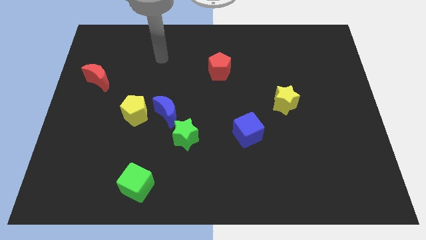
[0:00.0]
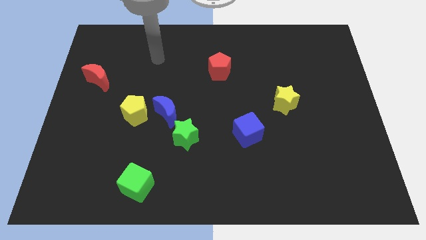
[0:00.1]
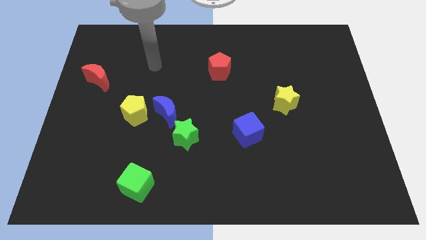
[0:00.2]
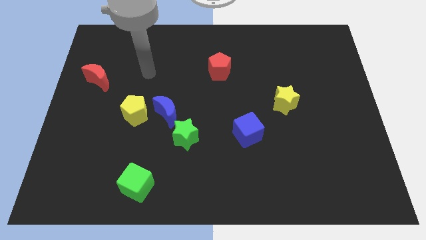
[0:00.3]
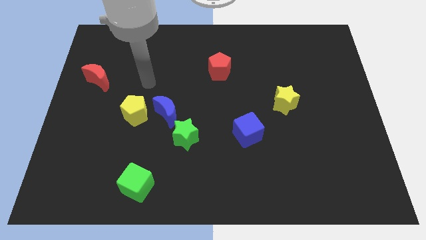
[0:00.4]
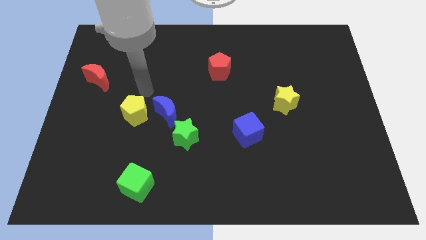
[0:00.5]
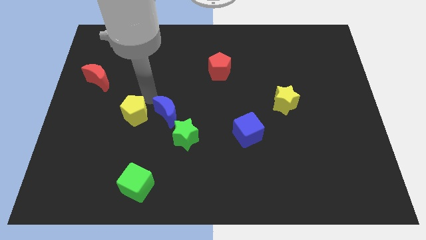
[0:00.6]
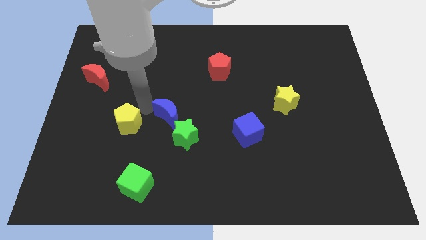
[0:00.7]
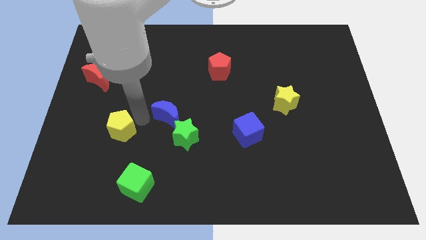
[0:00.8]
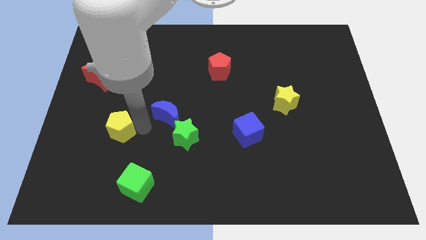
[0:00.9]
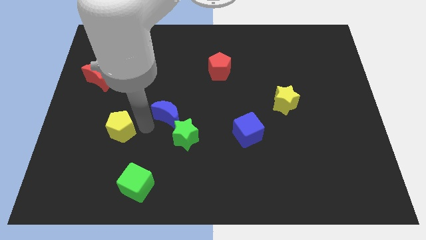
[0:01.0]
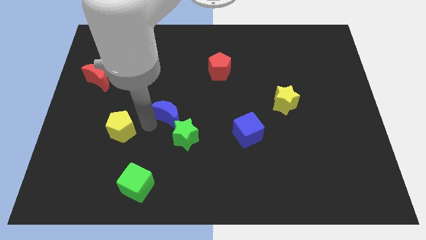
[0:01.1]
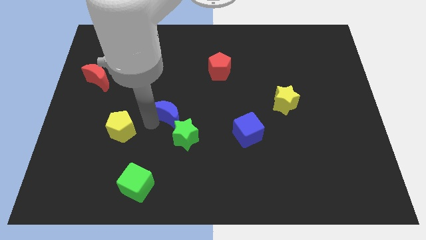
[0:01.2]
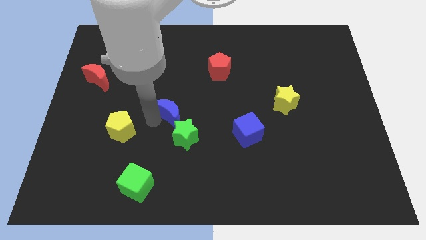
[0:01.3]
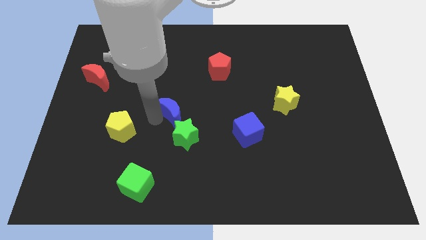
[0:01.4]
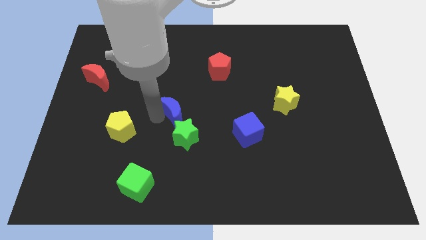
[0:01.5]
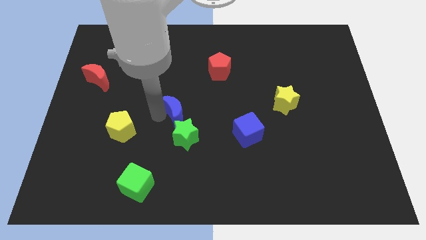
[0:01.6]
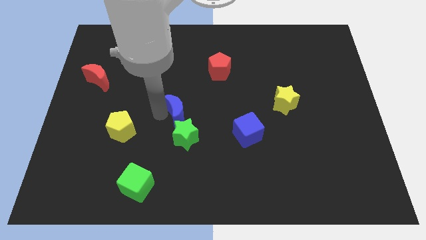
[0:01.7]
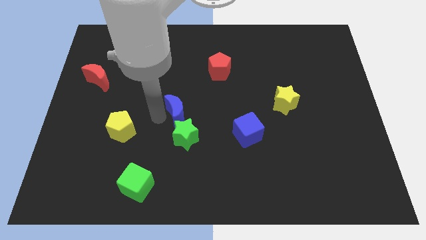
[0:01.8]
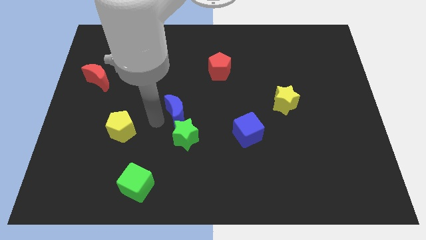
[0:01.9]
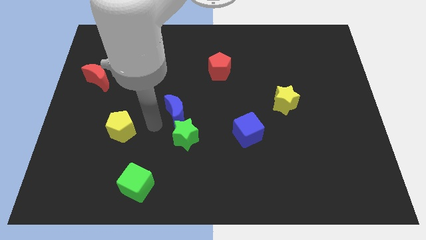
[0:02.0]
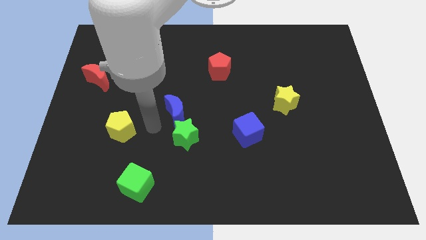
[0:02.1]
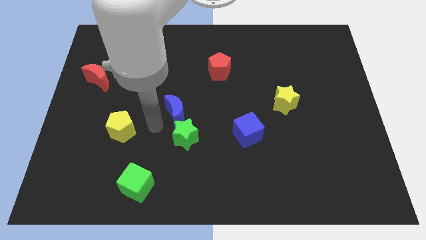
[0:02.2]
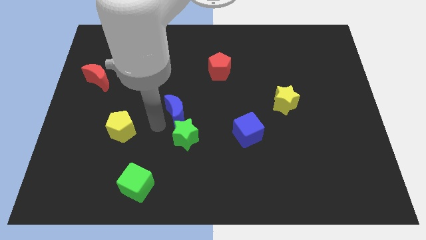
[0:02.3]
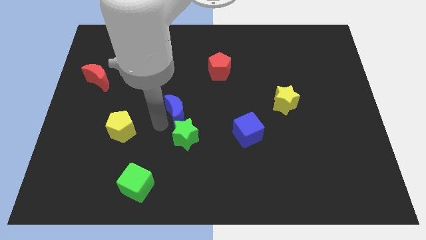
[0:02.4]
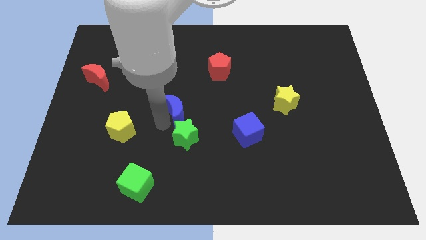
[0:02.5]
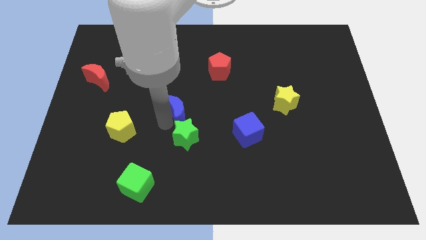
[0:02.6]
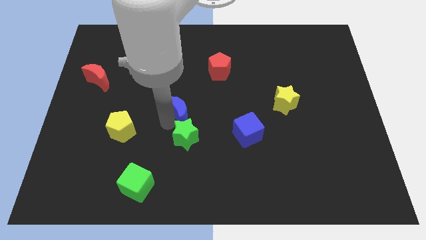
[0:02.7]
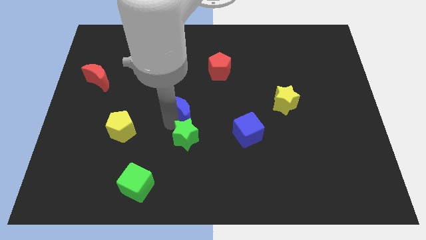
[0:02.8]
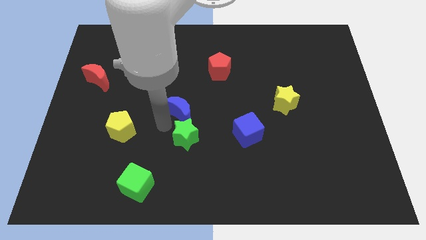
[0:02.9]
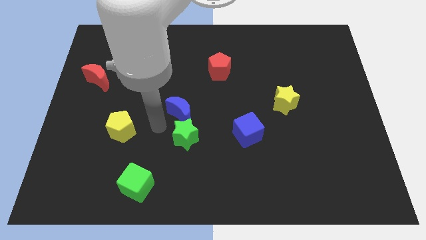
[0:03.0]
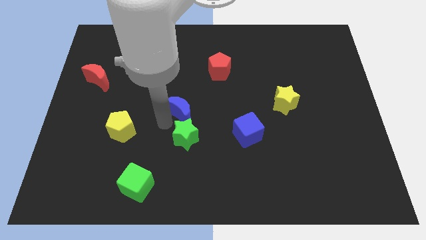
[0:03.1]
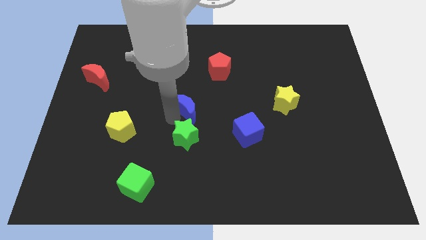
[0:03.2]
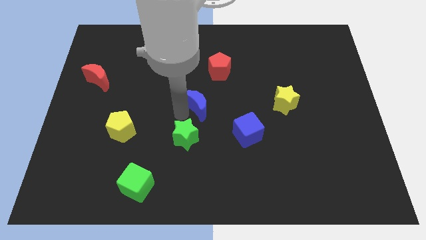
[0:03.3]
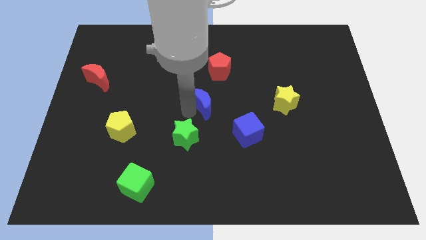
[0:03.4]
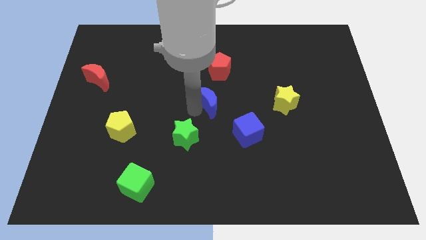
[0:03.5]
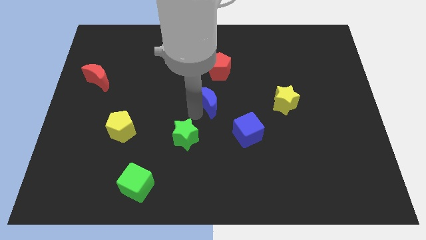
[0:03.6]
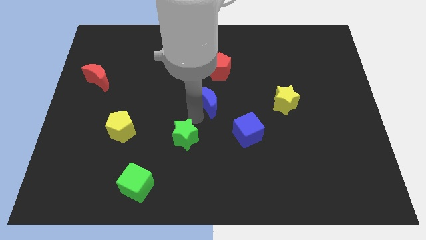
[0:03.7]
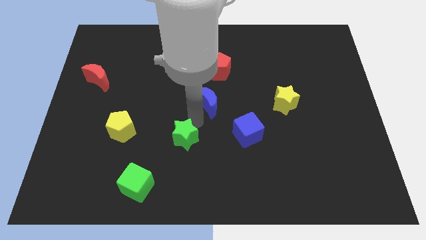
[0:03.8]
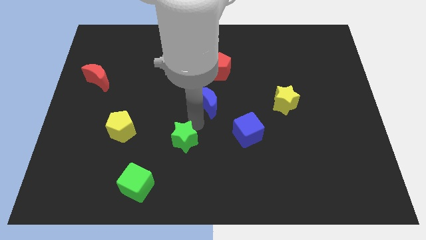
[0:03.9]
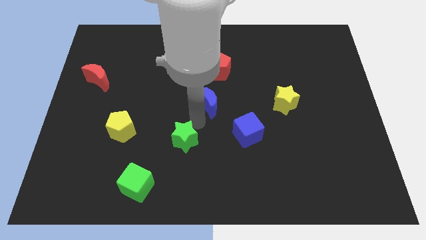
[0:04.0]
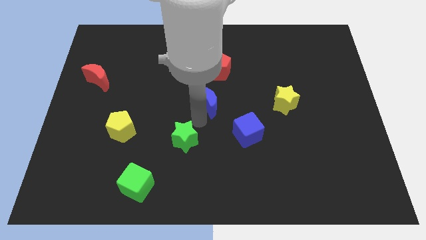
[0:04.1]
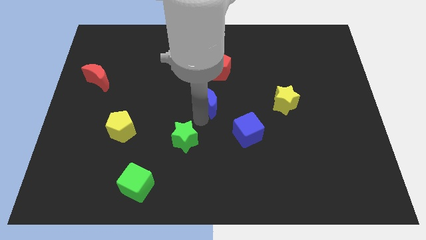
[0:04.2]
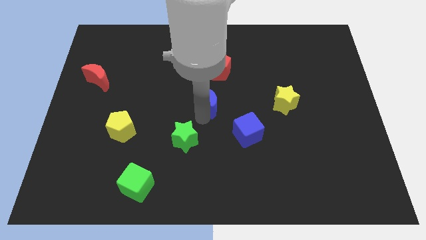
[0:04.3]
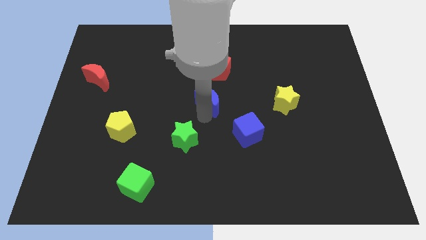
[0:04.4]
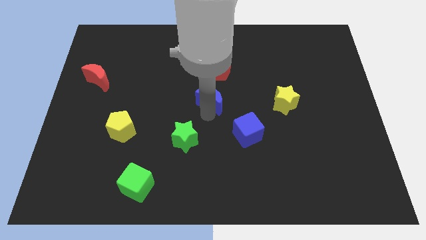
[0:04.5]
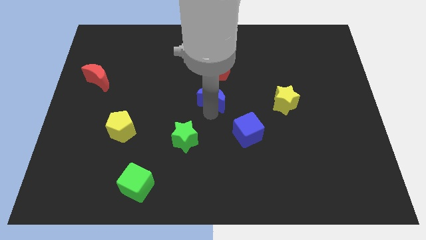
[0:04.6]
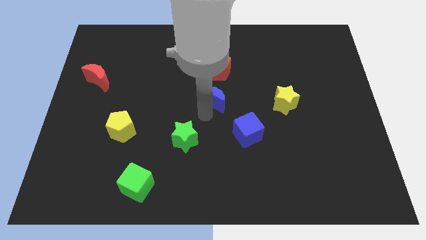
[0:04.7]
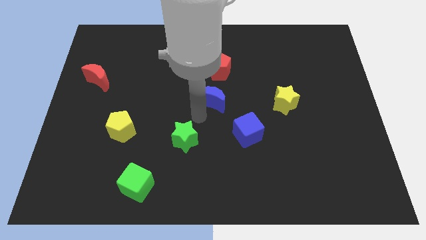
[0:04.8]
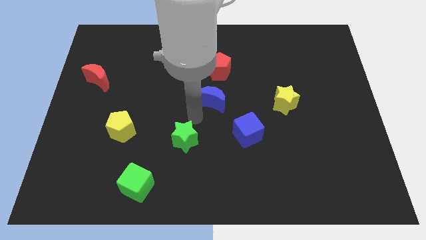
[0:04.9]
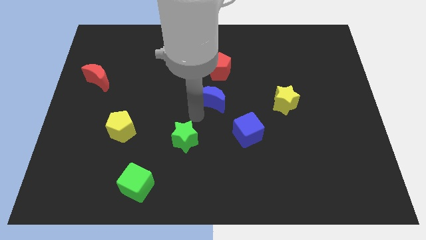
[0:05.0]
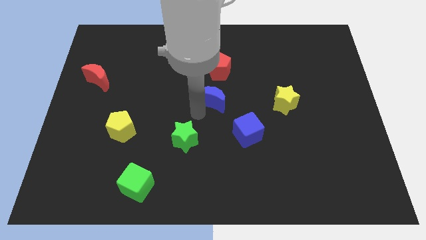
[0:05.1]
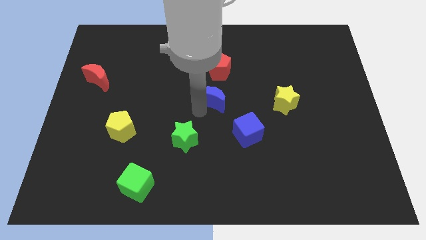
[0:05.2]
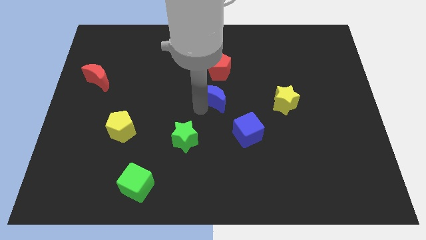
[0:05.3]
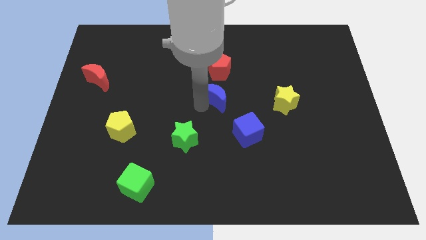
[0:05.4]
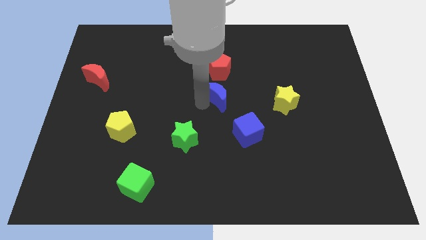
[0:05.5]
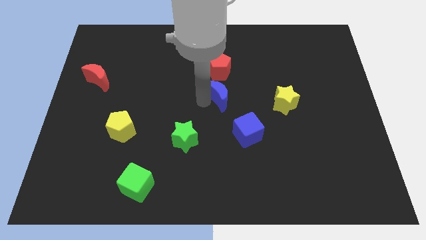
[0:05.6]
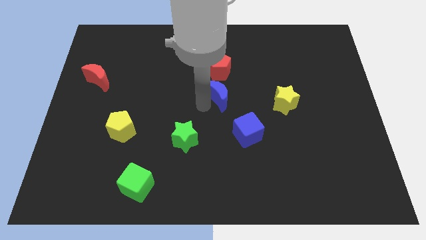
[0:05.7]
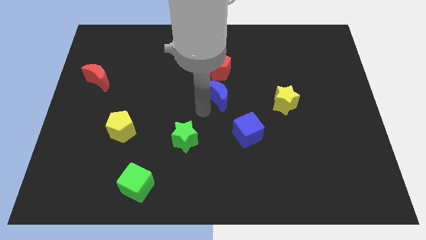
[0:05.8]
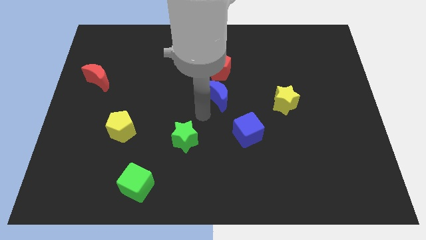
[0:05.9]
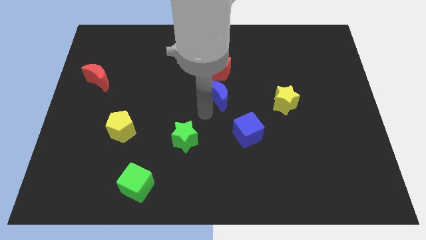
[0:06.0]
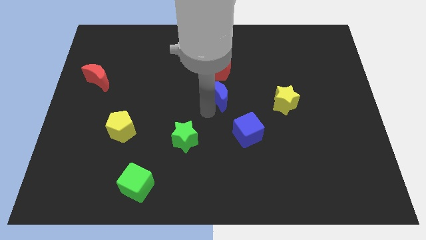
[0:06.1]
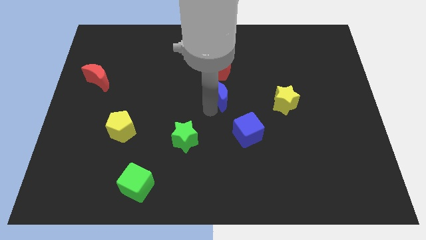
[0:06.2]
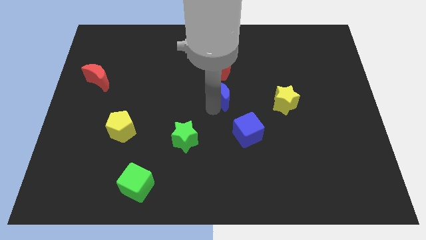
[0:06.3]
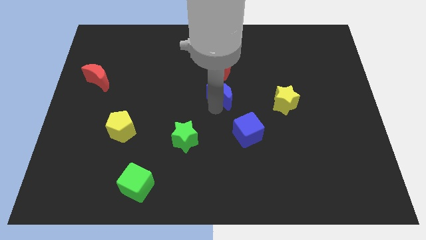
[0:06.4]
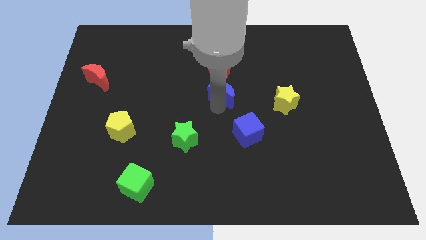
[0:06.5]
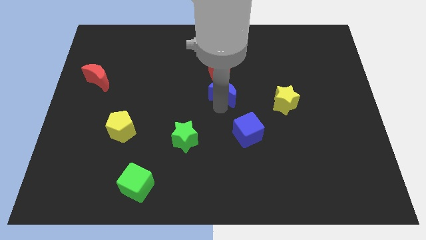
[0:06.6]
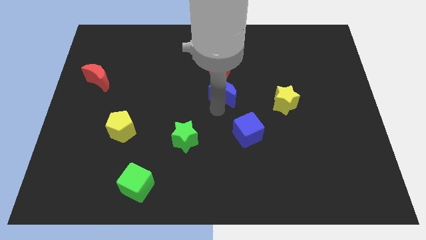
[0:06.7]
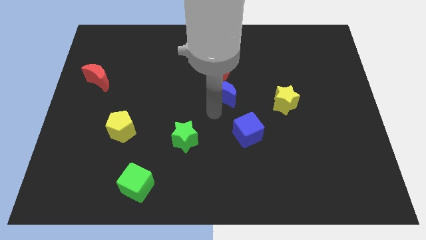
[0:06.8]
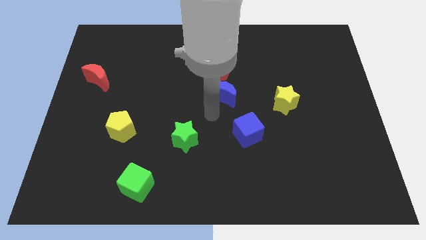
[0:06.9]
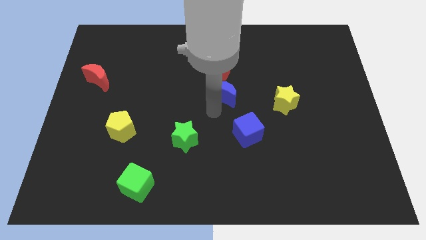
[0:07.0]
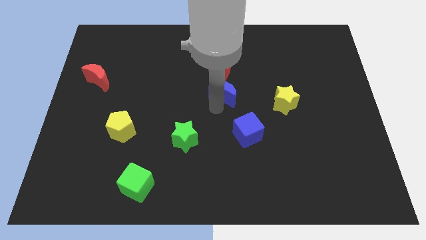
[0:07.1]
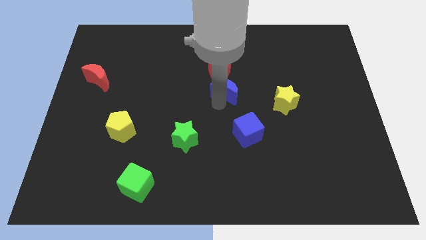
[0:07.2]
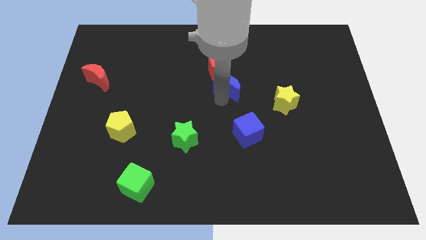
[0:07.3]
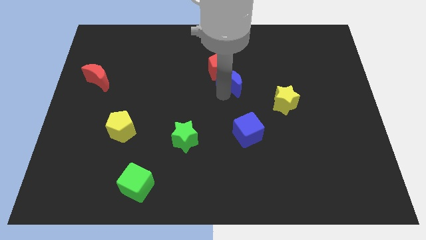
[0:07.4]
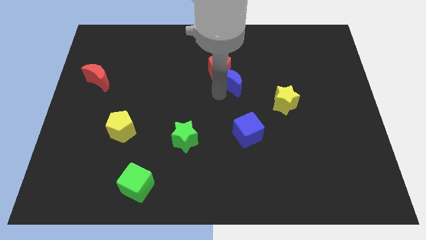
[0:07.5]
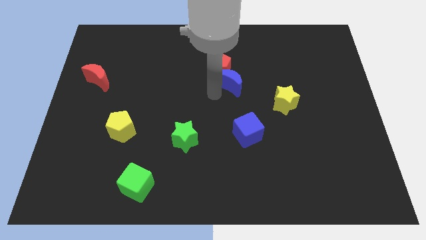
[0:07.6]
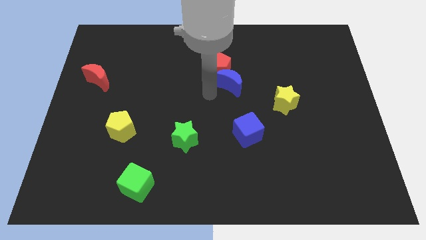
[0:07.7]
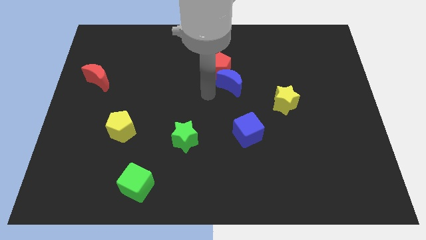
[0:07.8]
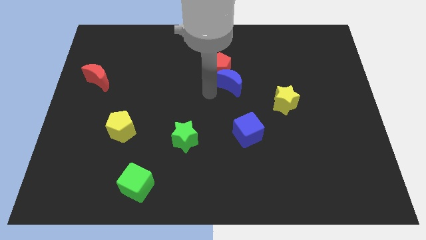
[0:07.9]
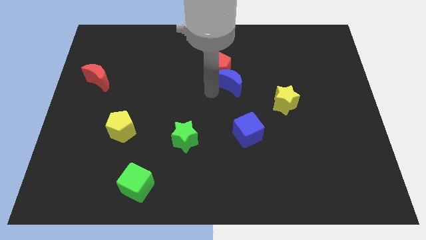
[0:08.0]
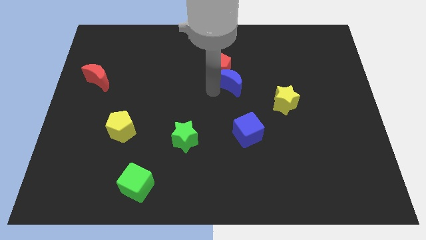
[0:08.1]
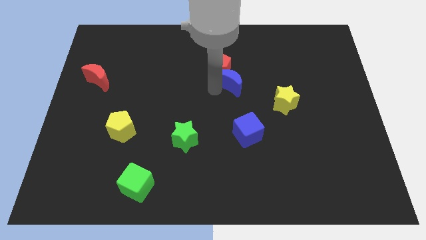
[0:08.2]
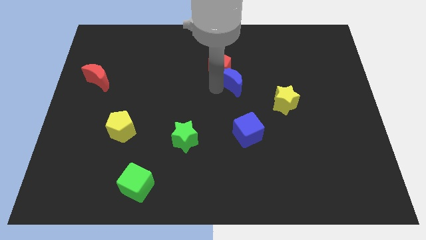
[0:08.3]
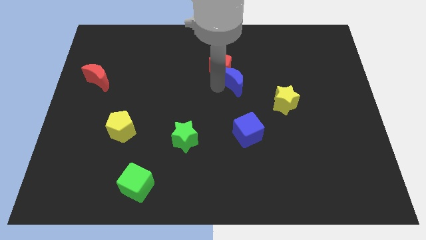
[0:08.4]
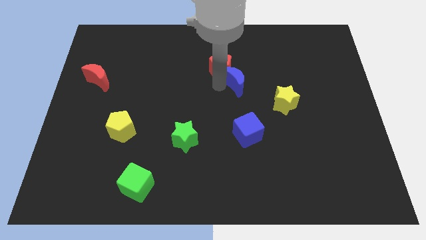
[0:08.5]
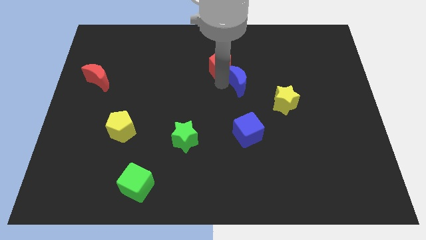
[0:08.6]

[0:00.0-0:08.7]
slide the blue moon to the right side of the red pentagon
